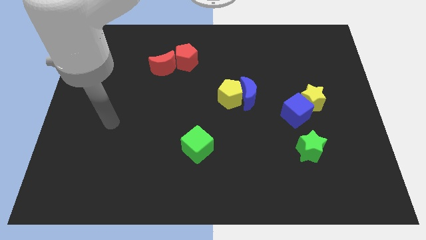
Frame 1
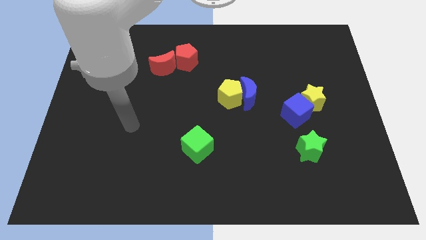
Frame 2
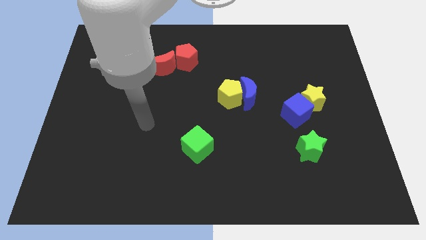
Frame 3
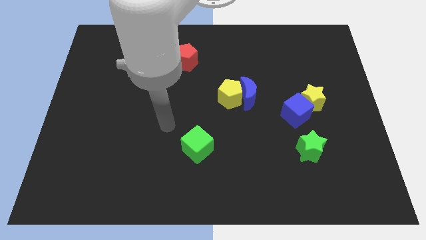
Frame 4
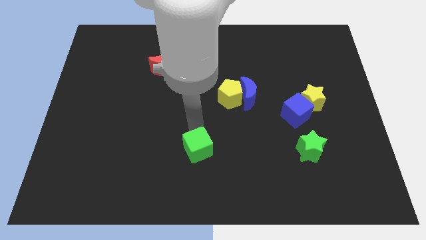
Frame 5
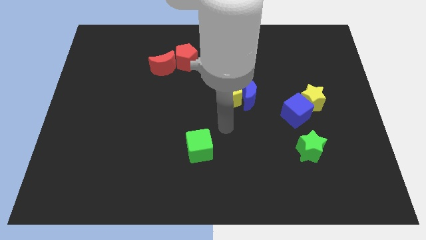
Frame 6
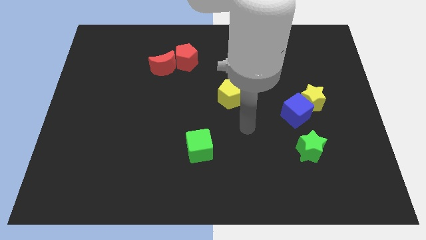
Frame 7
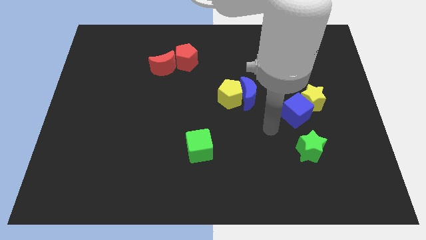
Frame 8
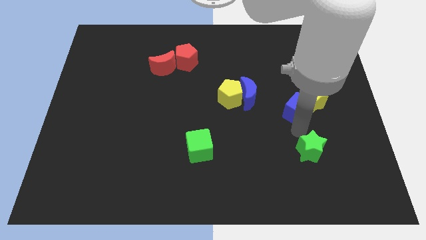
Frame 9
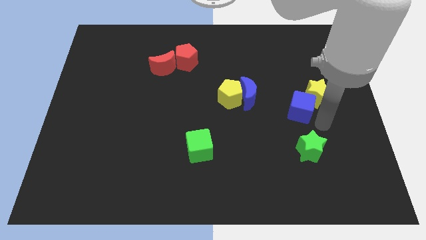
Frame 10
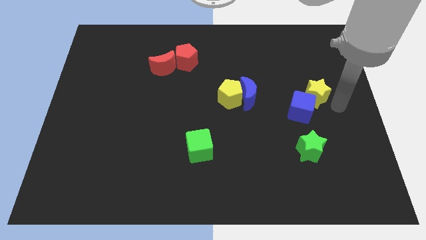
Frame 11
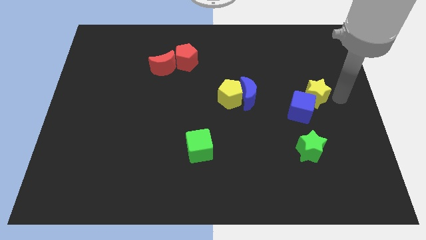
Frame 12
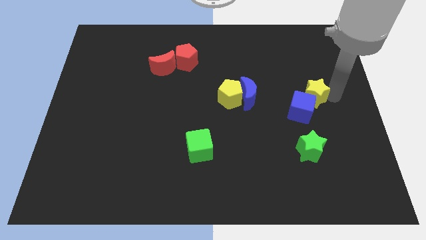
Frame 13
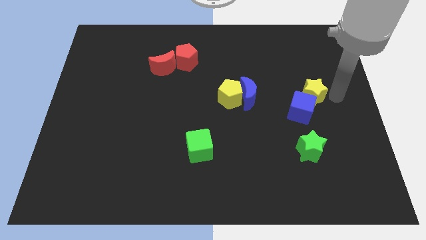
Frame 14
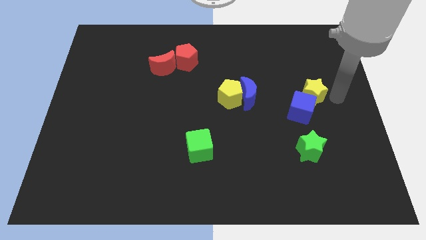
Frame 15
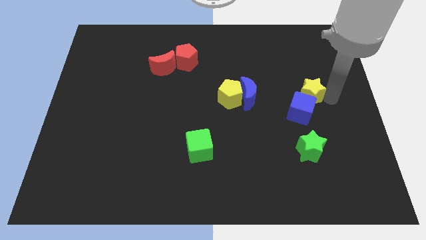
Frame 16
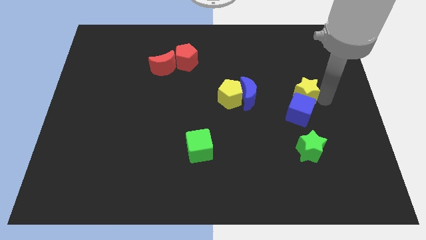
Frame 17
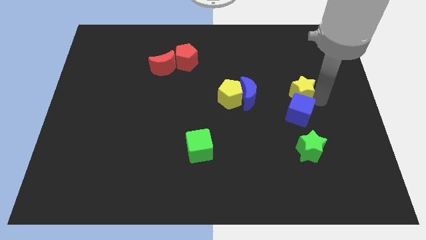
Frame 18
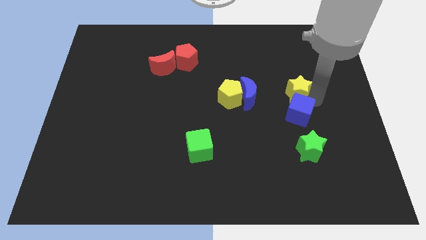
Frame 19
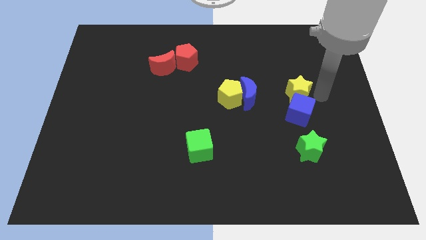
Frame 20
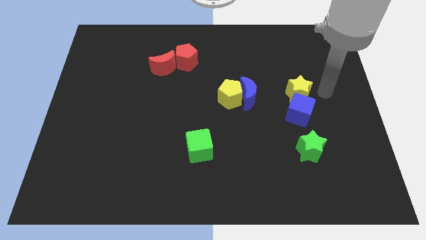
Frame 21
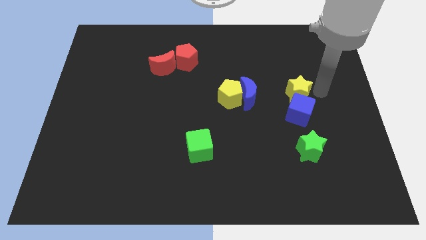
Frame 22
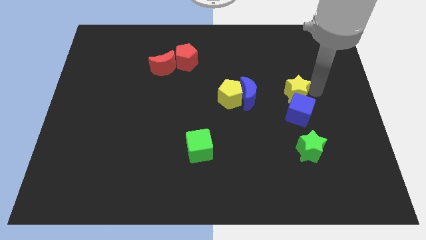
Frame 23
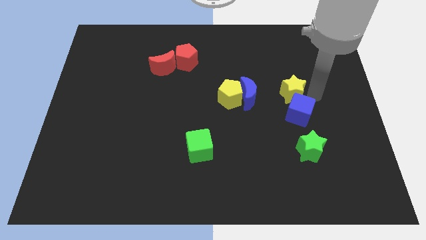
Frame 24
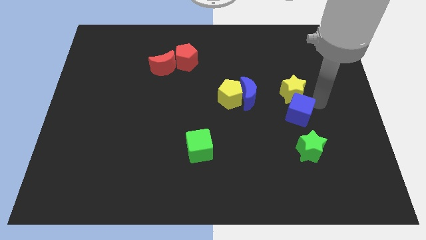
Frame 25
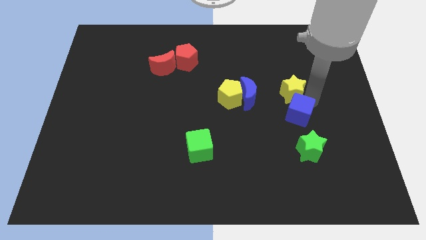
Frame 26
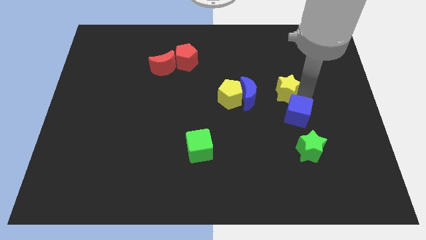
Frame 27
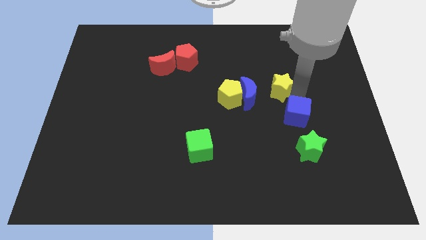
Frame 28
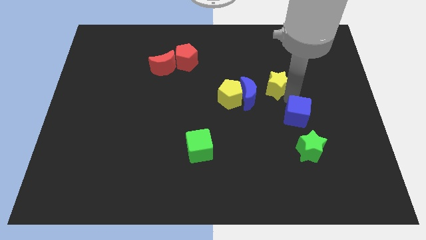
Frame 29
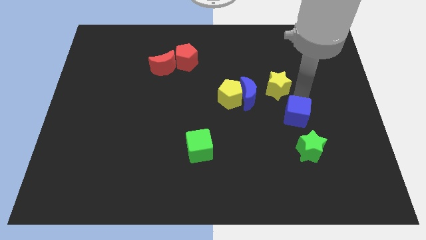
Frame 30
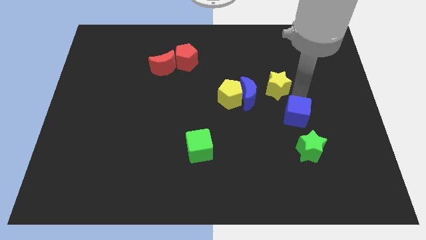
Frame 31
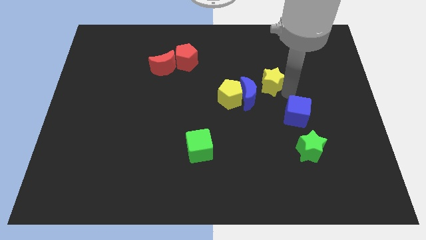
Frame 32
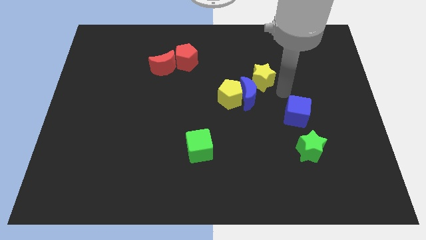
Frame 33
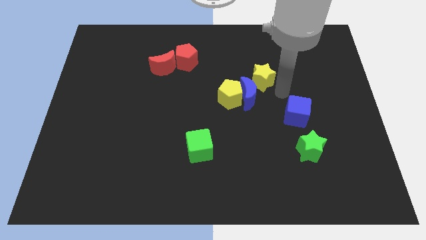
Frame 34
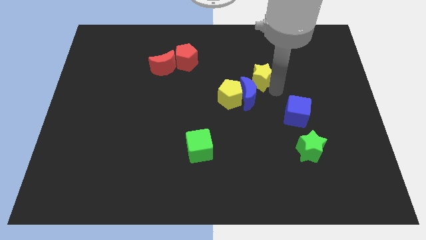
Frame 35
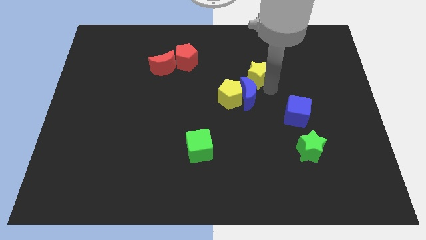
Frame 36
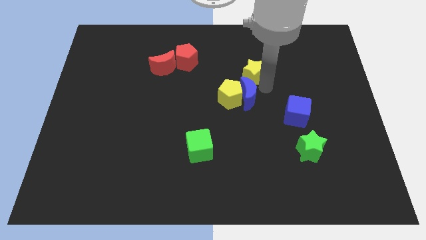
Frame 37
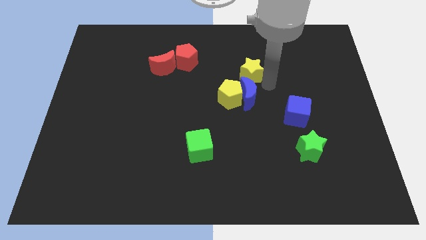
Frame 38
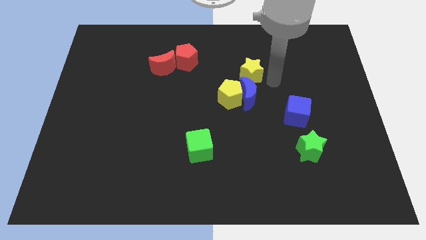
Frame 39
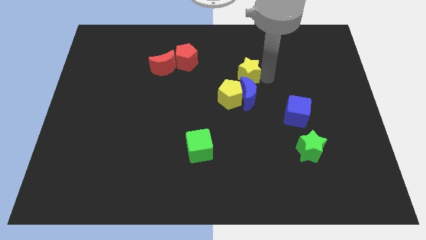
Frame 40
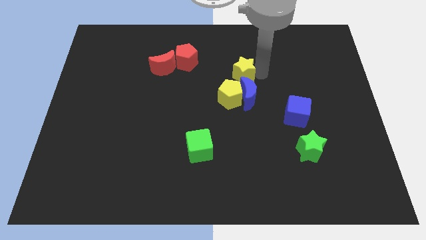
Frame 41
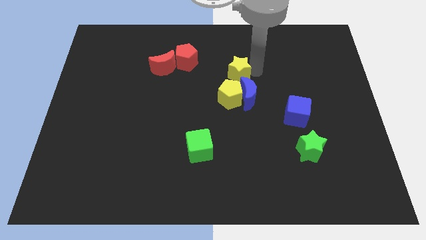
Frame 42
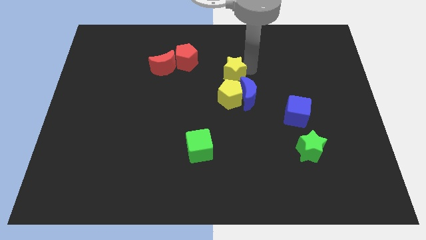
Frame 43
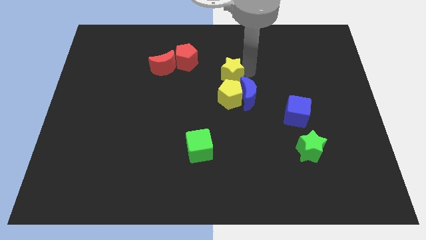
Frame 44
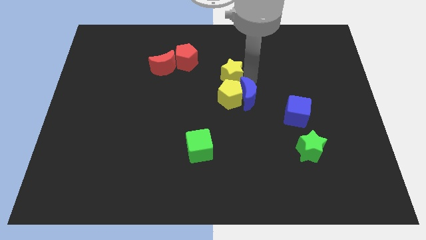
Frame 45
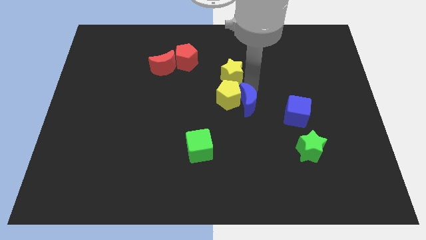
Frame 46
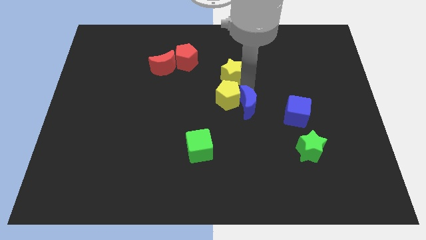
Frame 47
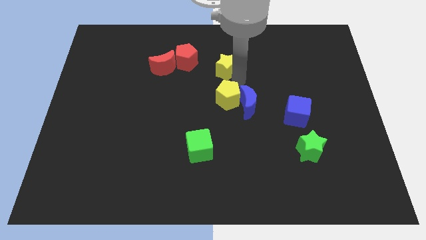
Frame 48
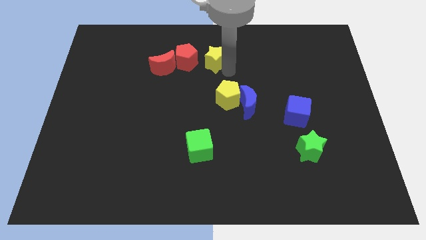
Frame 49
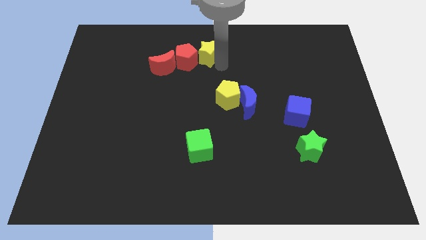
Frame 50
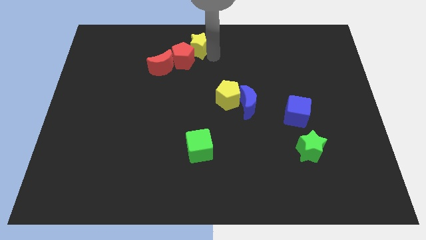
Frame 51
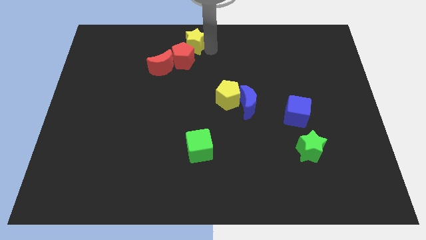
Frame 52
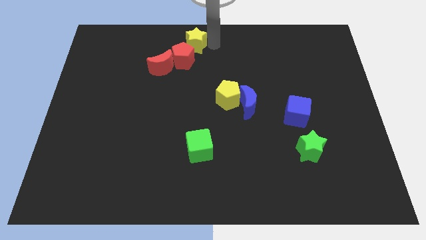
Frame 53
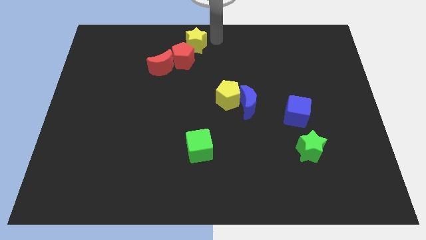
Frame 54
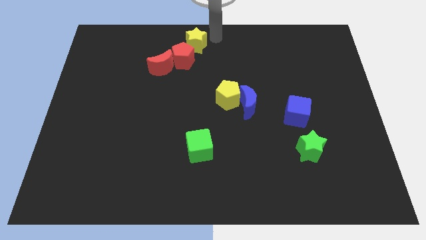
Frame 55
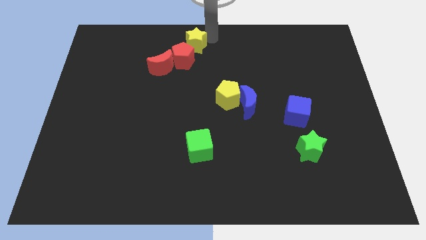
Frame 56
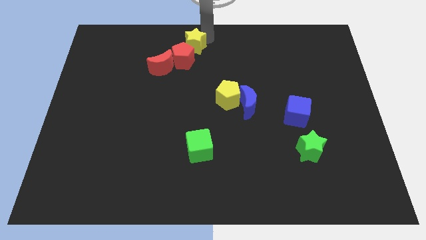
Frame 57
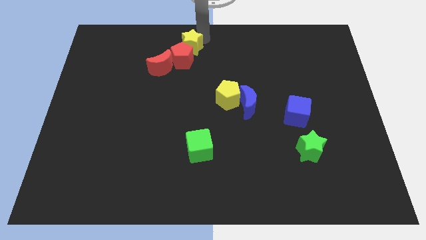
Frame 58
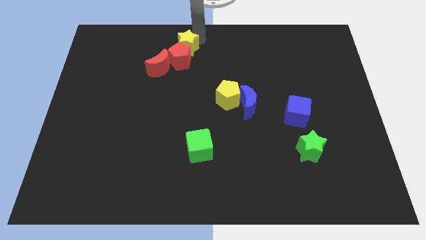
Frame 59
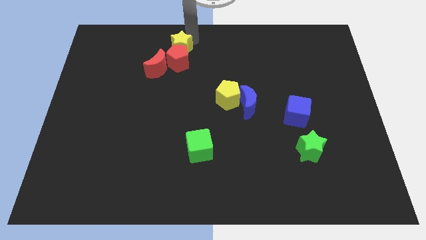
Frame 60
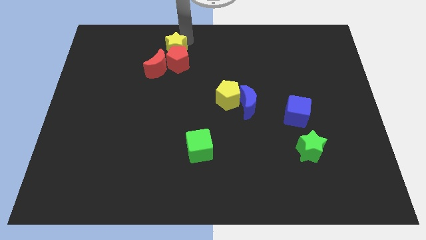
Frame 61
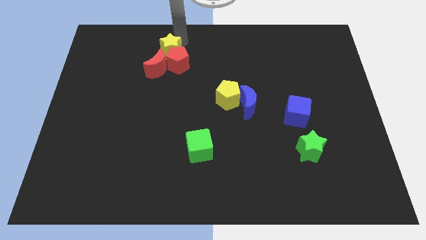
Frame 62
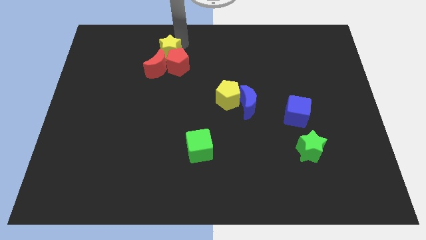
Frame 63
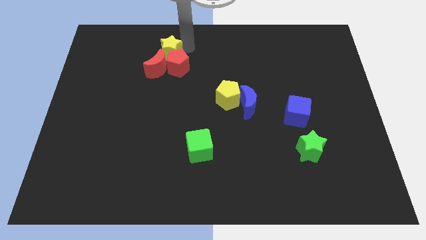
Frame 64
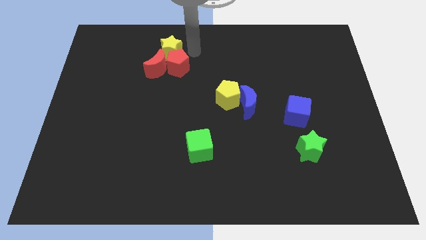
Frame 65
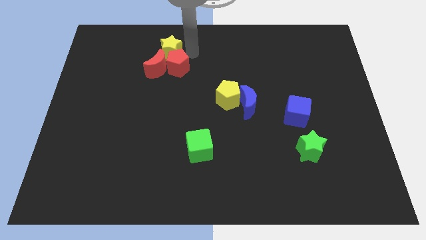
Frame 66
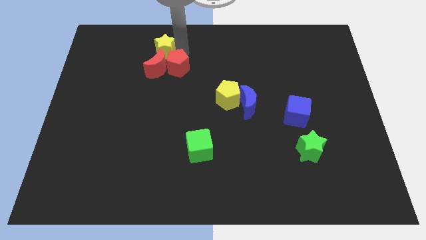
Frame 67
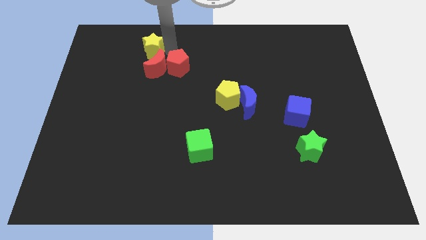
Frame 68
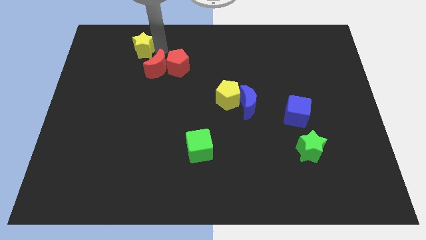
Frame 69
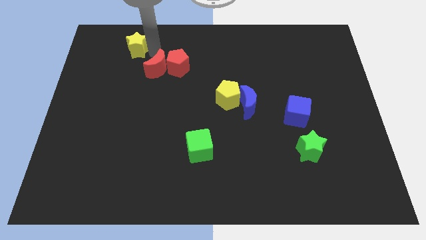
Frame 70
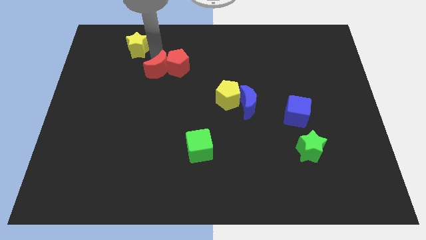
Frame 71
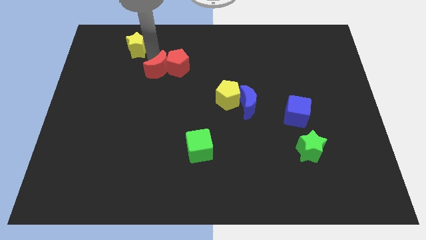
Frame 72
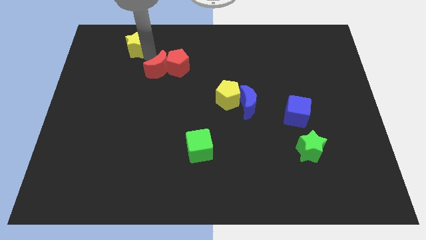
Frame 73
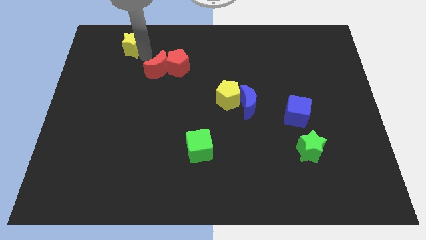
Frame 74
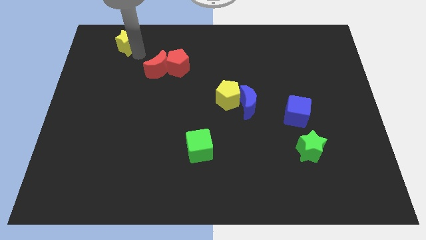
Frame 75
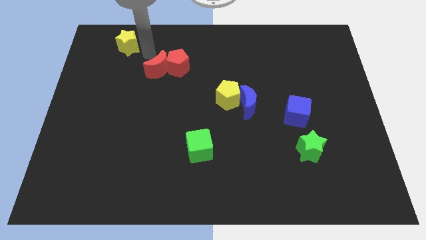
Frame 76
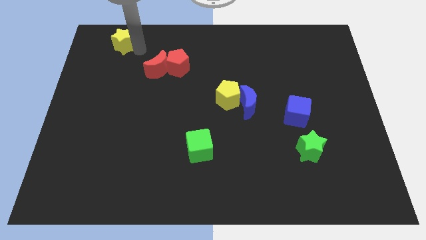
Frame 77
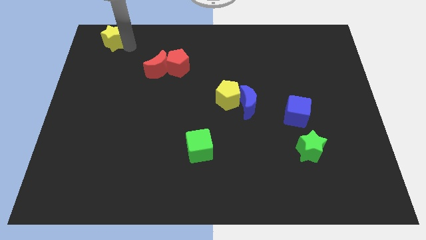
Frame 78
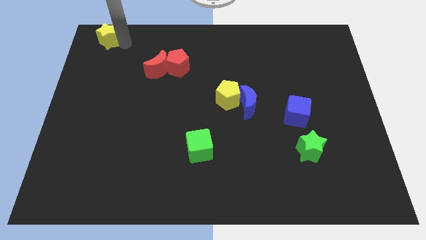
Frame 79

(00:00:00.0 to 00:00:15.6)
slide the yellow star to the top left of the board
